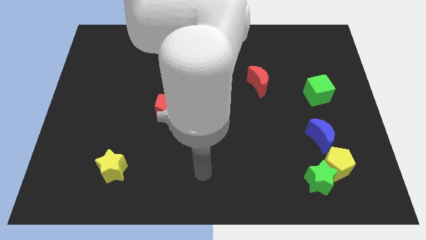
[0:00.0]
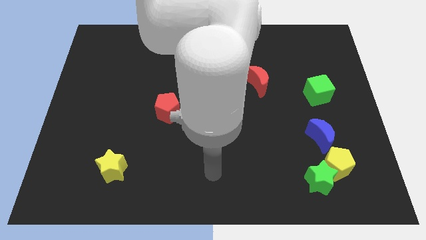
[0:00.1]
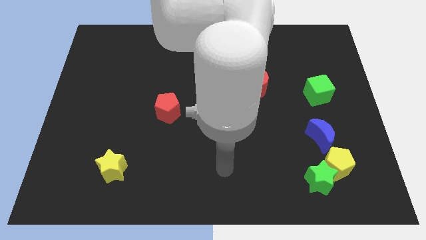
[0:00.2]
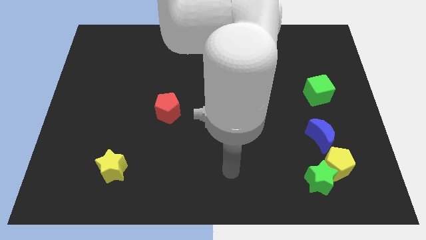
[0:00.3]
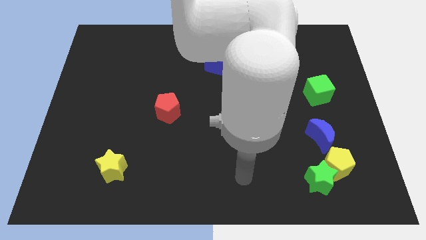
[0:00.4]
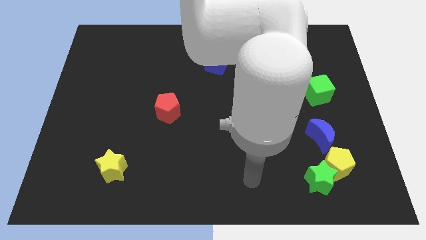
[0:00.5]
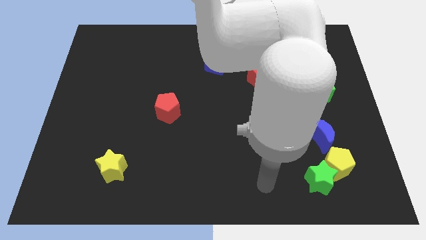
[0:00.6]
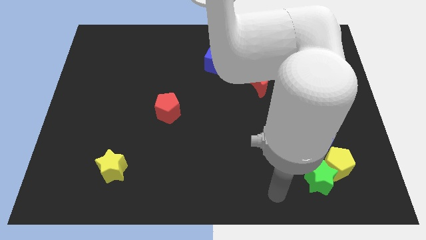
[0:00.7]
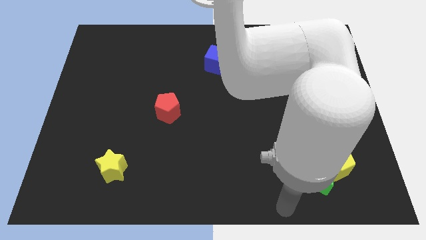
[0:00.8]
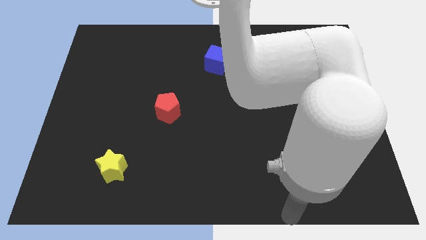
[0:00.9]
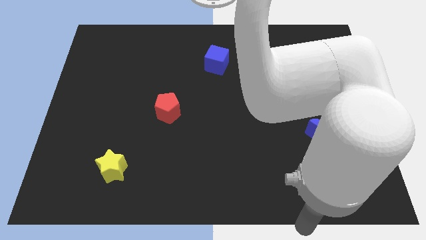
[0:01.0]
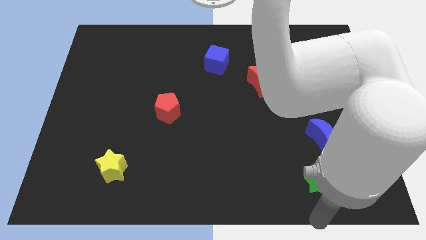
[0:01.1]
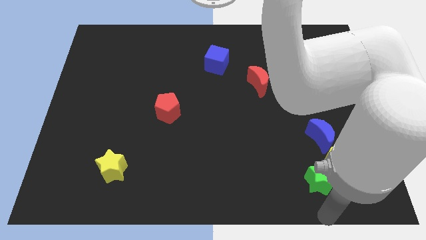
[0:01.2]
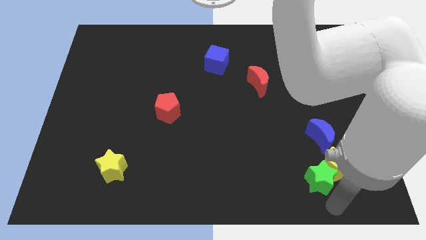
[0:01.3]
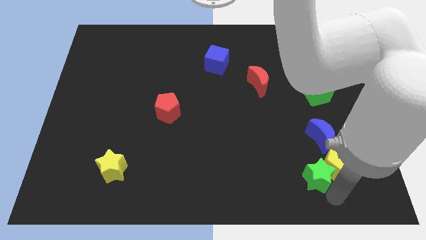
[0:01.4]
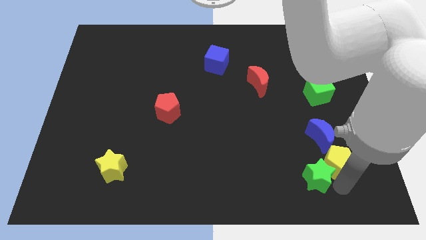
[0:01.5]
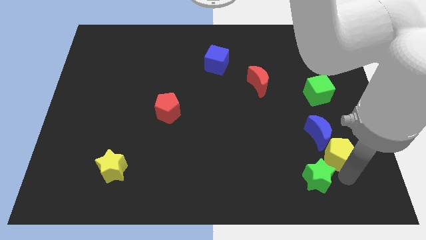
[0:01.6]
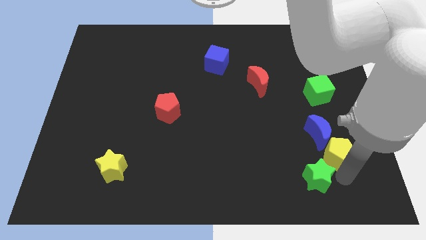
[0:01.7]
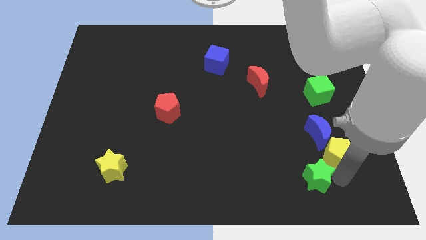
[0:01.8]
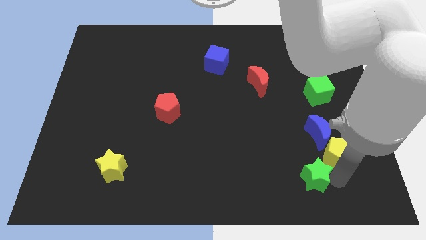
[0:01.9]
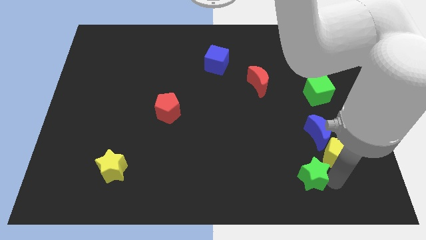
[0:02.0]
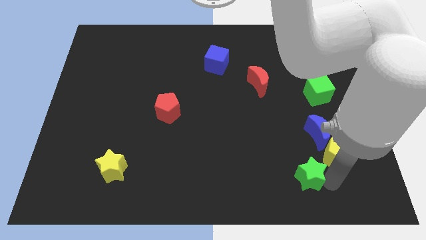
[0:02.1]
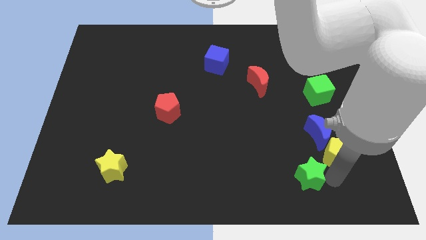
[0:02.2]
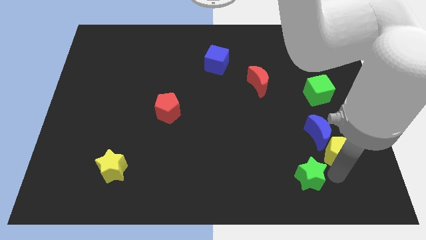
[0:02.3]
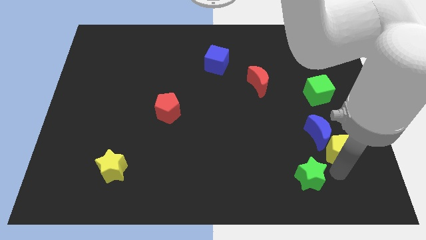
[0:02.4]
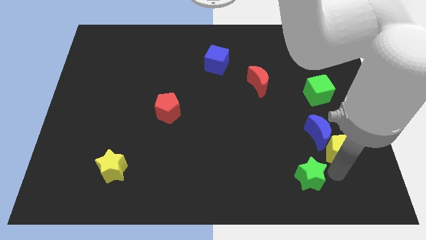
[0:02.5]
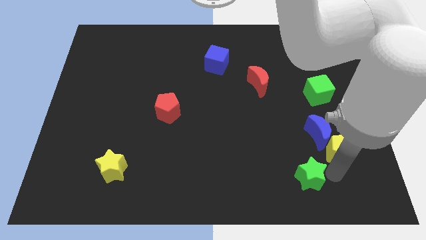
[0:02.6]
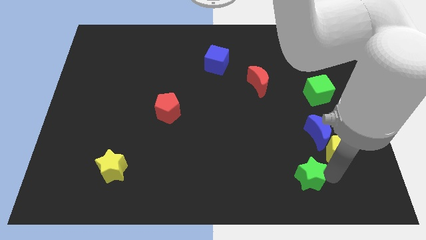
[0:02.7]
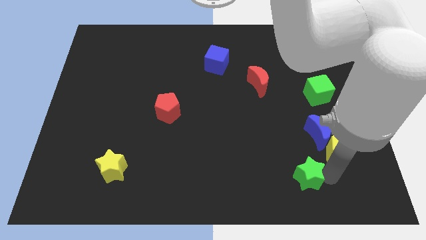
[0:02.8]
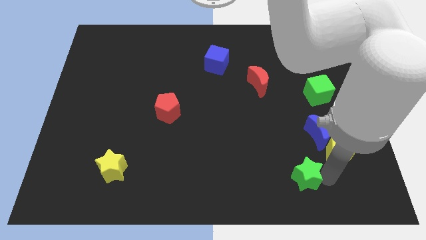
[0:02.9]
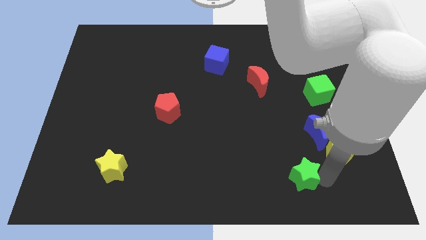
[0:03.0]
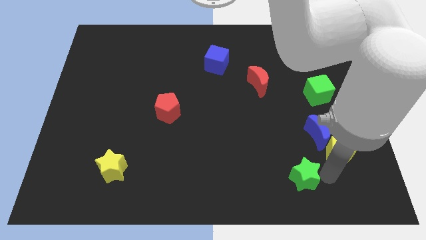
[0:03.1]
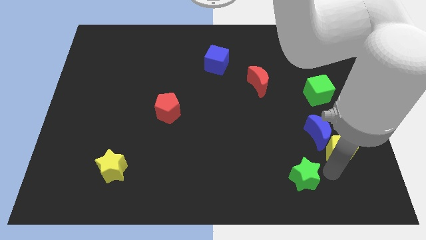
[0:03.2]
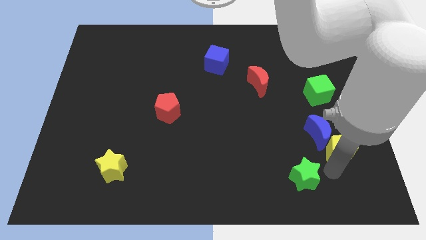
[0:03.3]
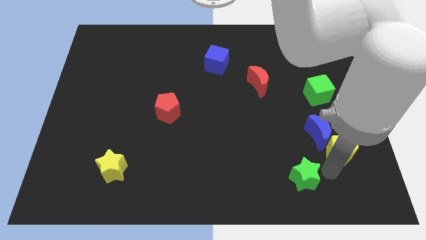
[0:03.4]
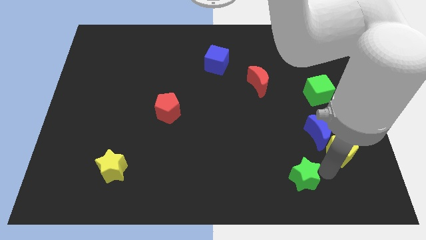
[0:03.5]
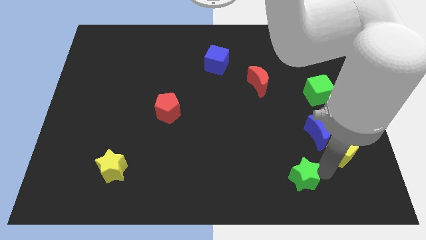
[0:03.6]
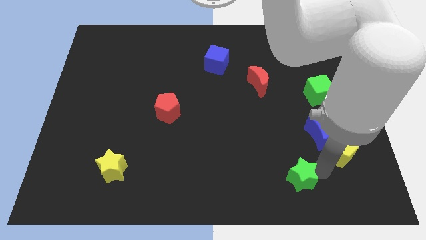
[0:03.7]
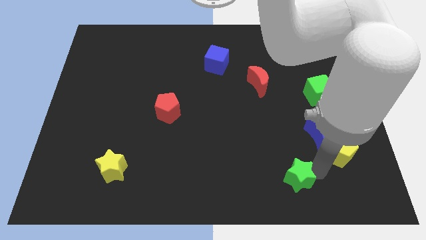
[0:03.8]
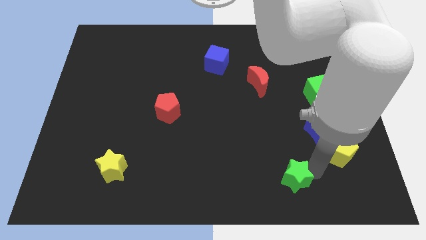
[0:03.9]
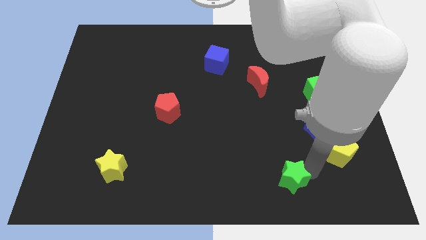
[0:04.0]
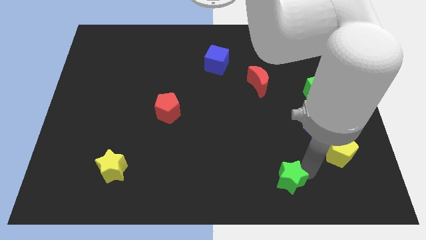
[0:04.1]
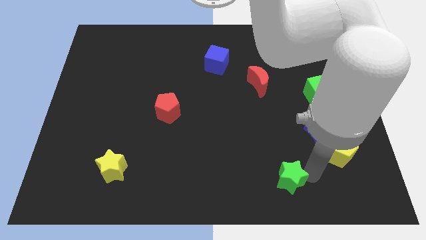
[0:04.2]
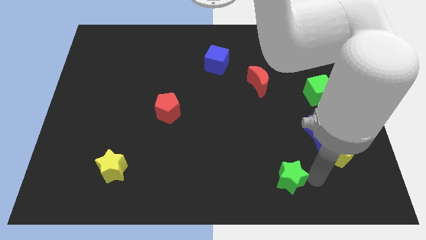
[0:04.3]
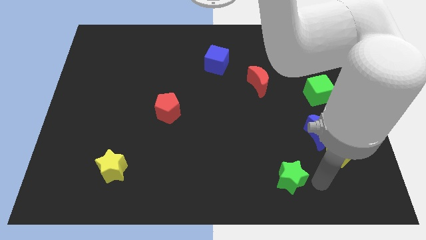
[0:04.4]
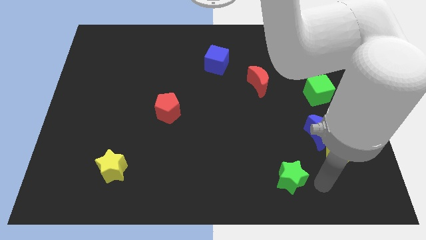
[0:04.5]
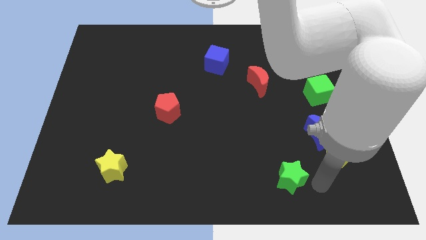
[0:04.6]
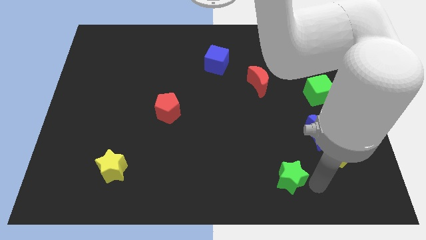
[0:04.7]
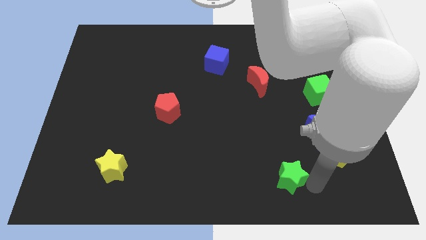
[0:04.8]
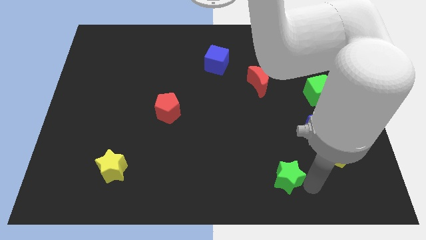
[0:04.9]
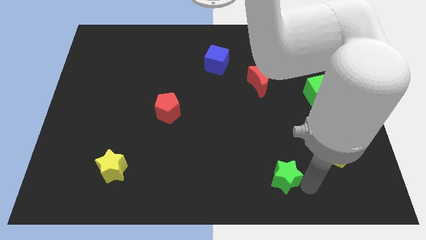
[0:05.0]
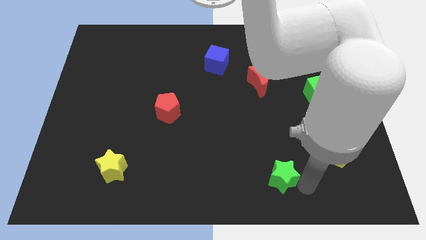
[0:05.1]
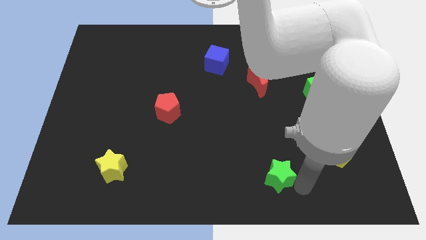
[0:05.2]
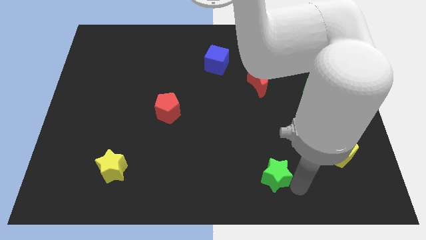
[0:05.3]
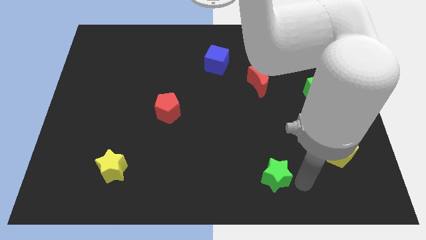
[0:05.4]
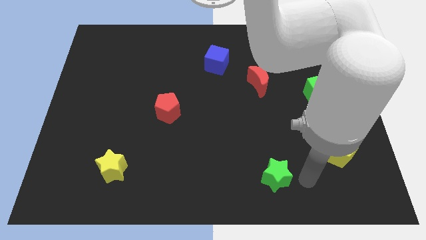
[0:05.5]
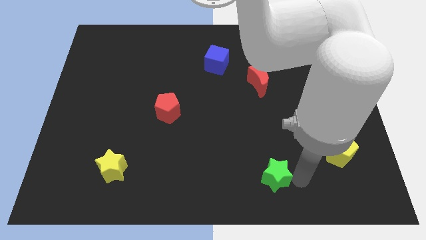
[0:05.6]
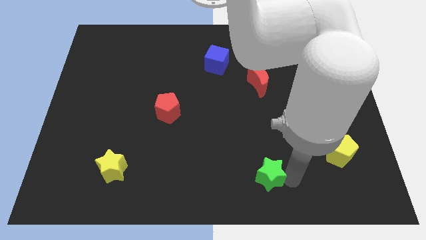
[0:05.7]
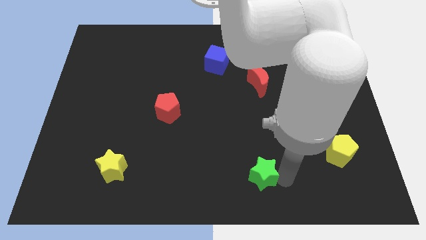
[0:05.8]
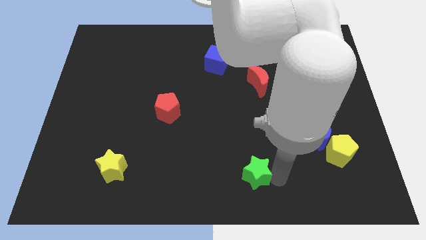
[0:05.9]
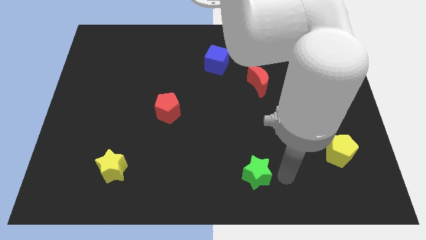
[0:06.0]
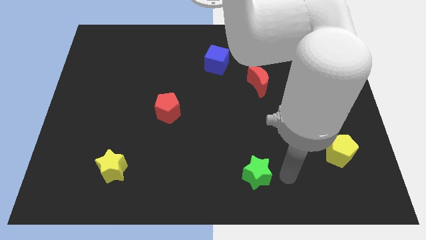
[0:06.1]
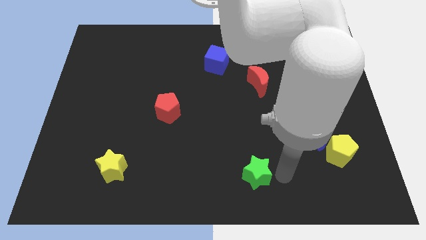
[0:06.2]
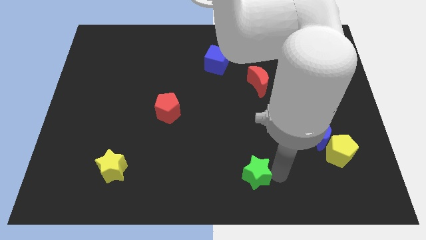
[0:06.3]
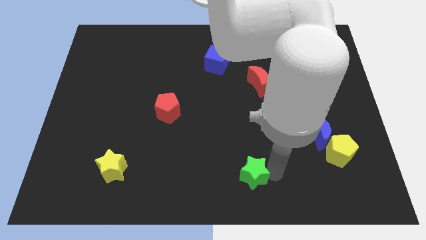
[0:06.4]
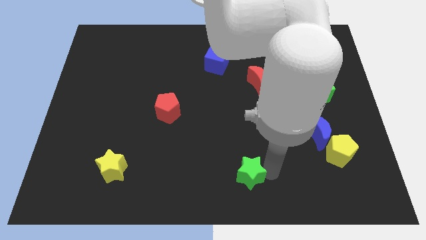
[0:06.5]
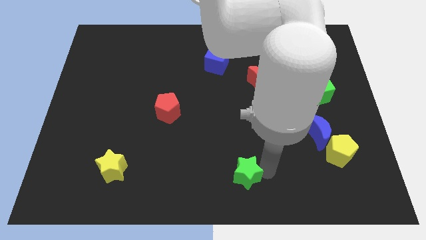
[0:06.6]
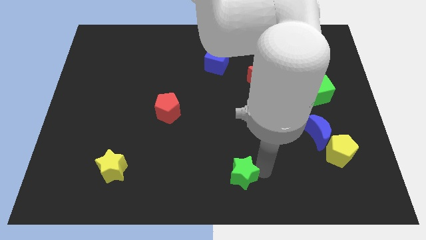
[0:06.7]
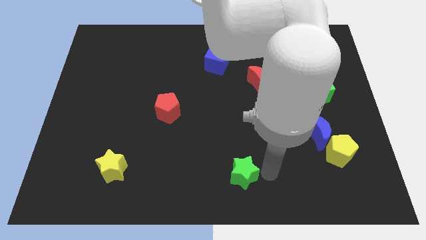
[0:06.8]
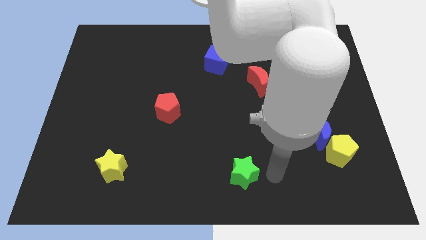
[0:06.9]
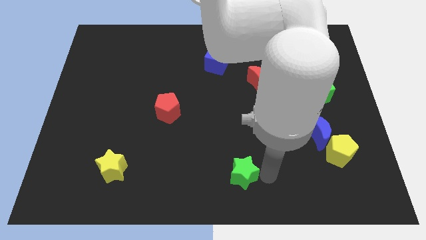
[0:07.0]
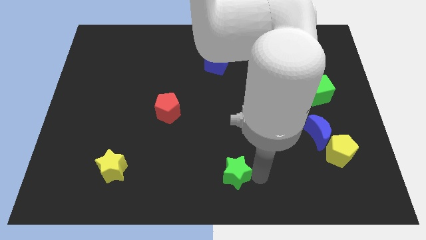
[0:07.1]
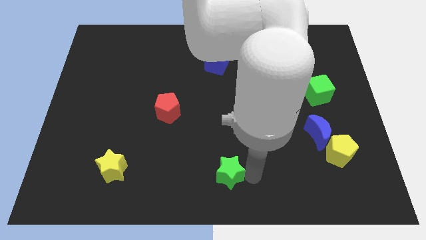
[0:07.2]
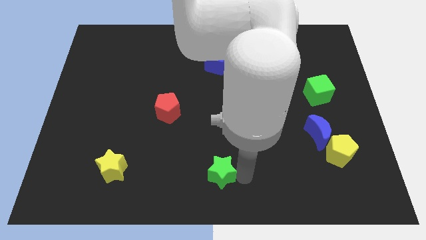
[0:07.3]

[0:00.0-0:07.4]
move the green star left

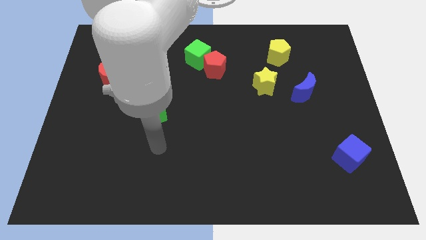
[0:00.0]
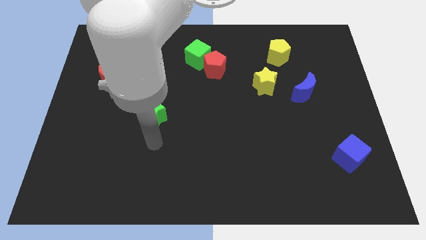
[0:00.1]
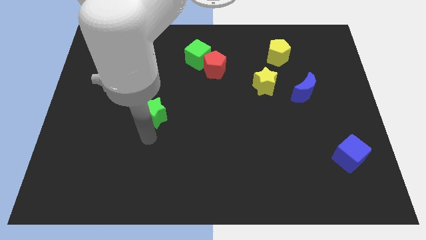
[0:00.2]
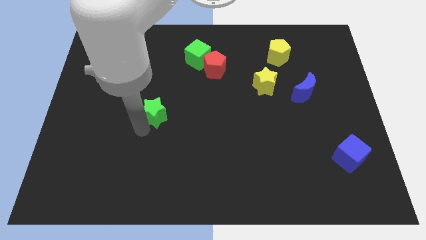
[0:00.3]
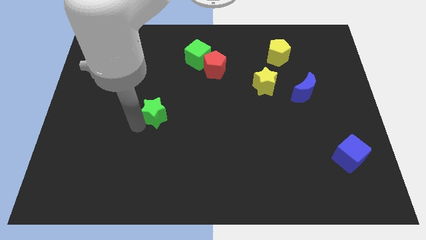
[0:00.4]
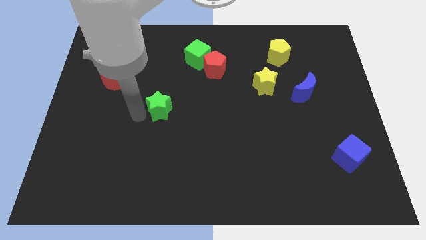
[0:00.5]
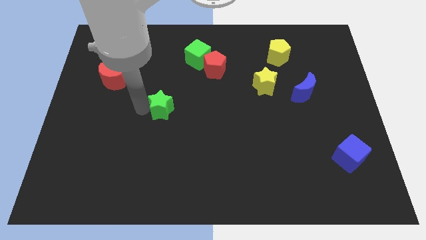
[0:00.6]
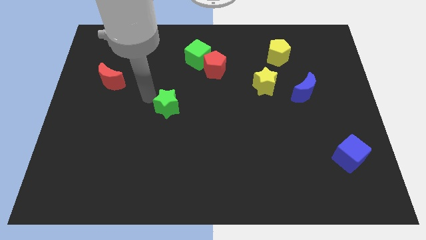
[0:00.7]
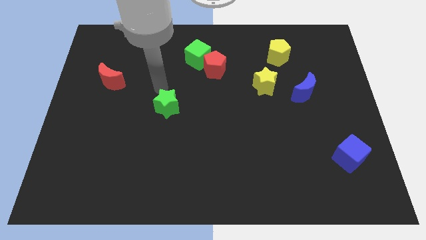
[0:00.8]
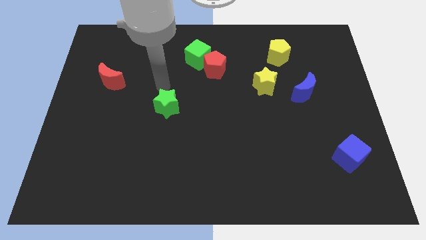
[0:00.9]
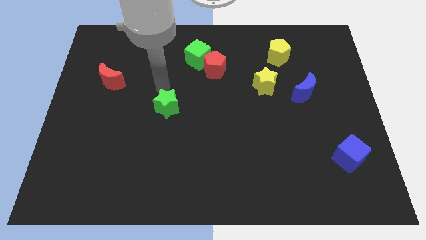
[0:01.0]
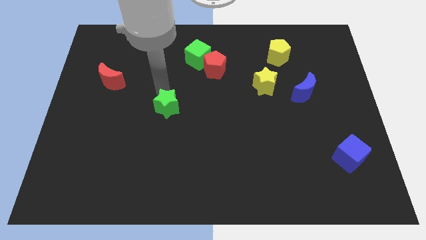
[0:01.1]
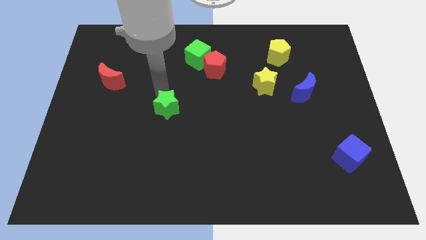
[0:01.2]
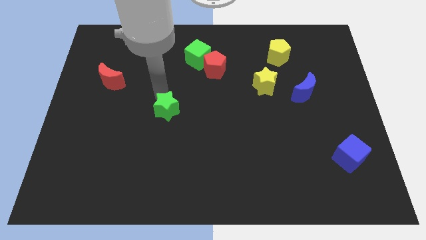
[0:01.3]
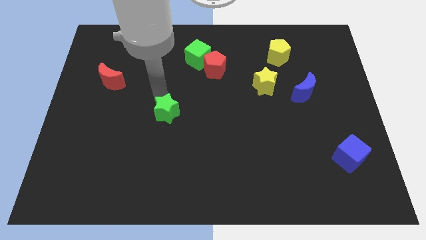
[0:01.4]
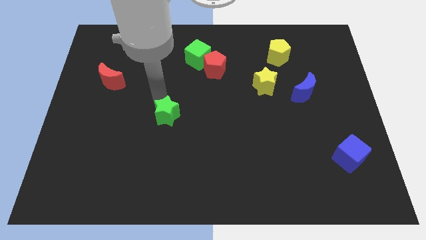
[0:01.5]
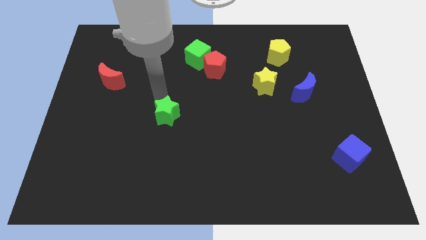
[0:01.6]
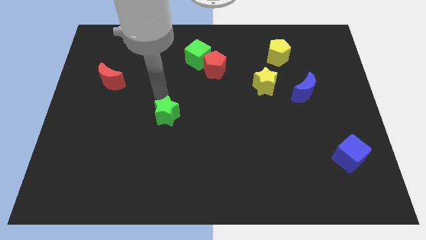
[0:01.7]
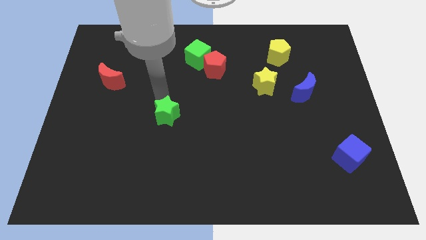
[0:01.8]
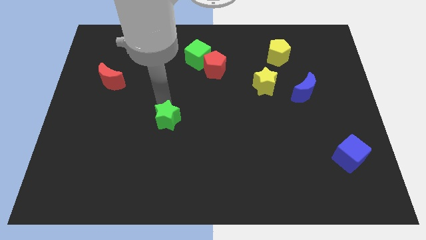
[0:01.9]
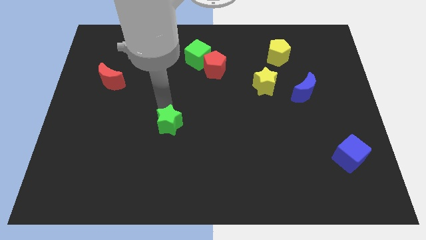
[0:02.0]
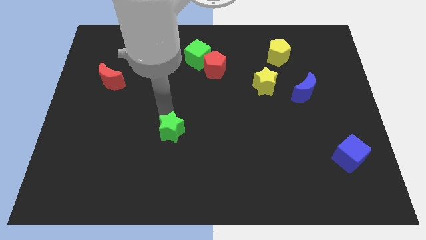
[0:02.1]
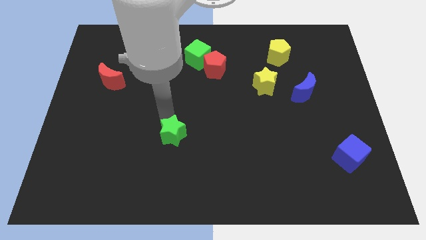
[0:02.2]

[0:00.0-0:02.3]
push the green star down and then to the right somewhat
